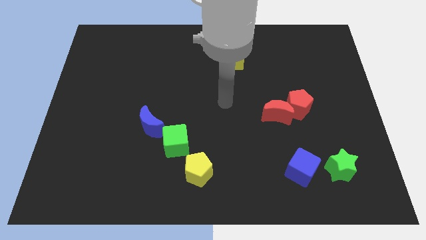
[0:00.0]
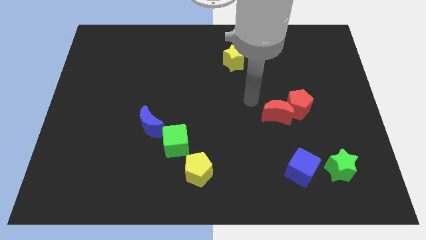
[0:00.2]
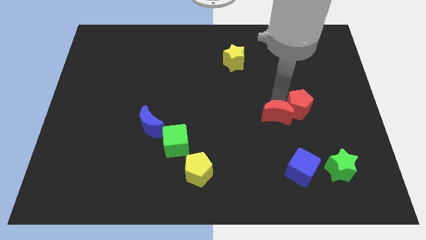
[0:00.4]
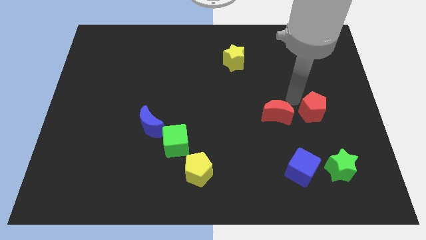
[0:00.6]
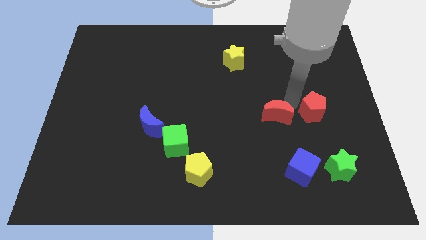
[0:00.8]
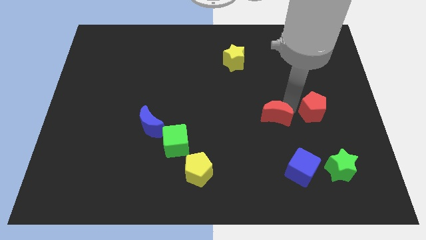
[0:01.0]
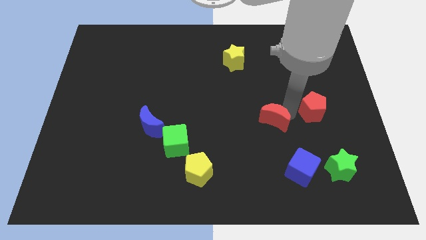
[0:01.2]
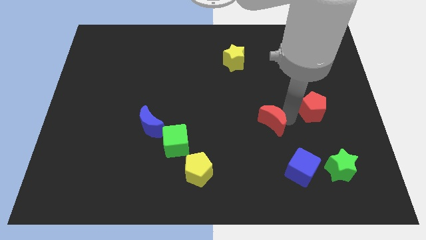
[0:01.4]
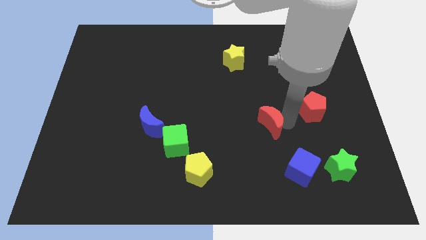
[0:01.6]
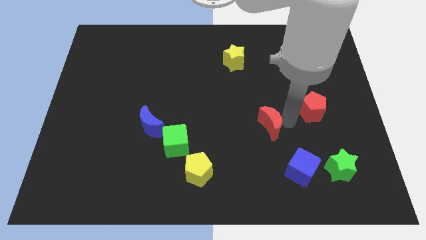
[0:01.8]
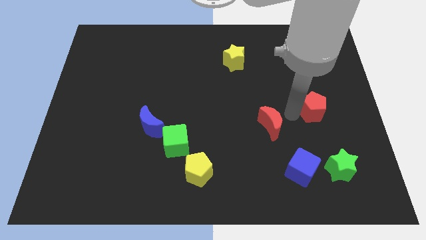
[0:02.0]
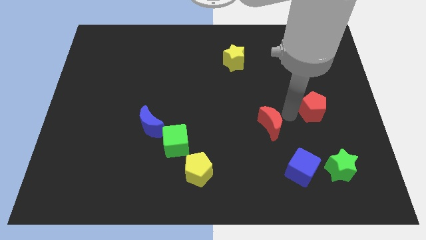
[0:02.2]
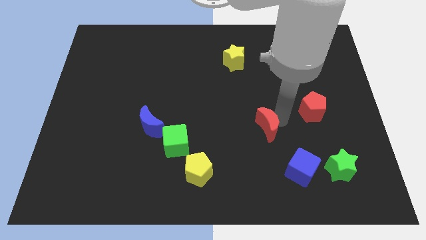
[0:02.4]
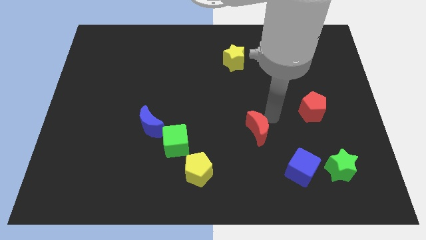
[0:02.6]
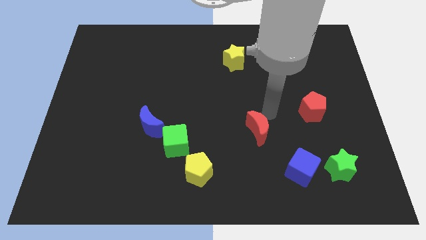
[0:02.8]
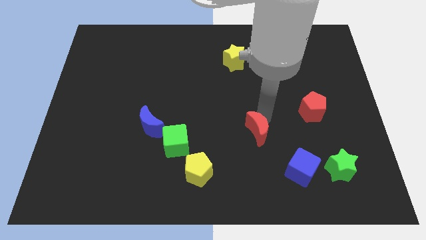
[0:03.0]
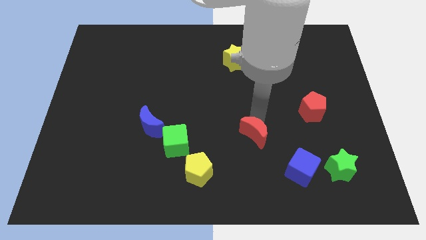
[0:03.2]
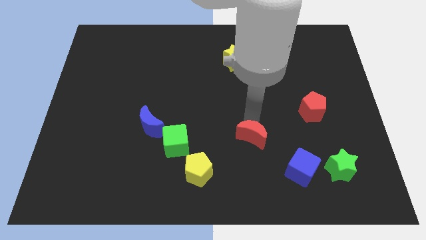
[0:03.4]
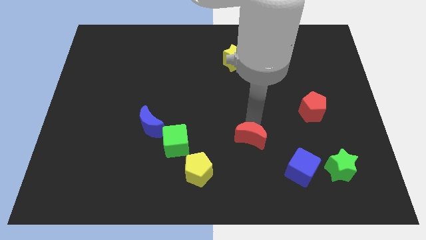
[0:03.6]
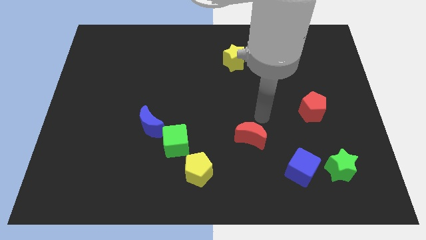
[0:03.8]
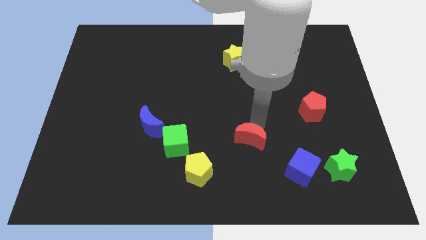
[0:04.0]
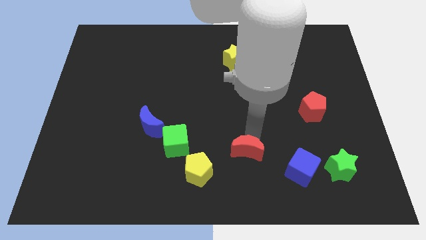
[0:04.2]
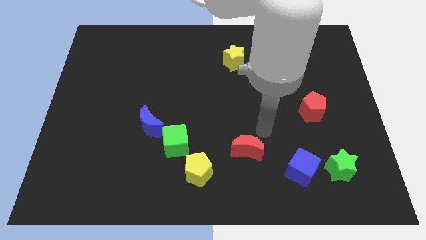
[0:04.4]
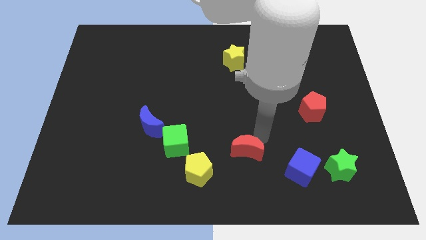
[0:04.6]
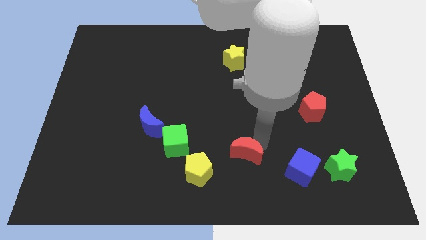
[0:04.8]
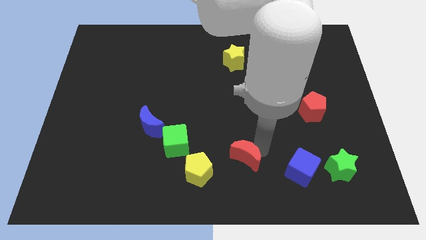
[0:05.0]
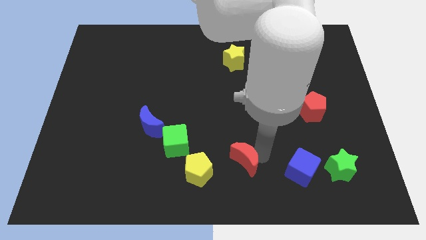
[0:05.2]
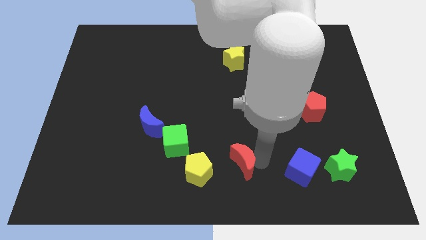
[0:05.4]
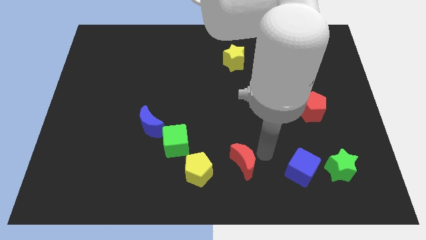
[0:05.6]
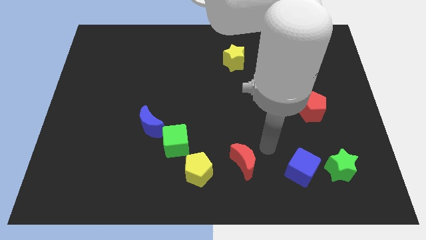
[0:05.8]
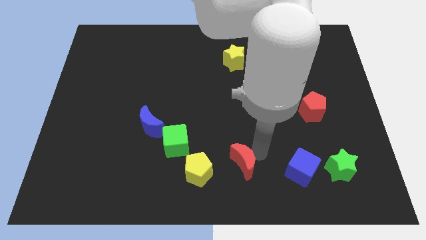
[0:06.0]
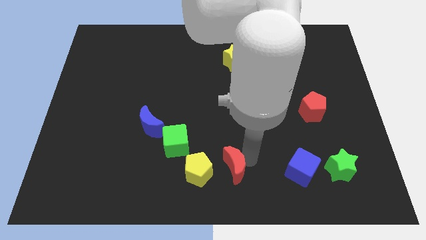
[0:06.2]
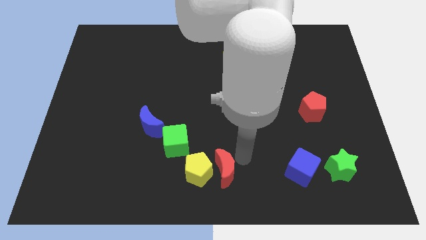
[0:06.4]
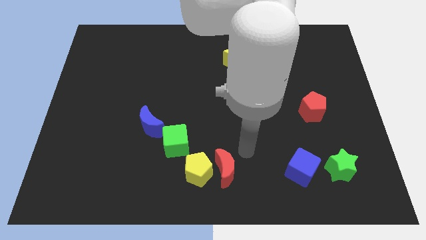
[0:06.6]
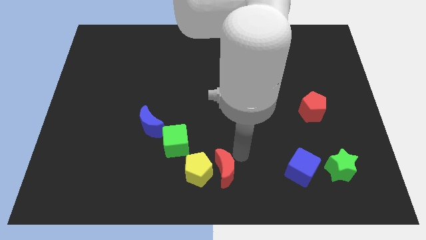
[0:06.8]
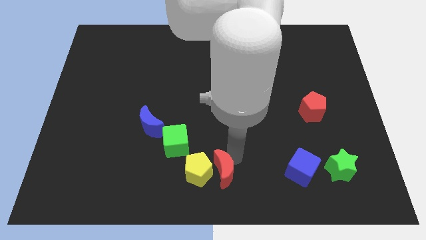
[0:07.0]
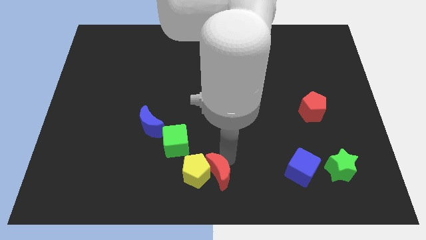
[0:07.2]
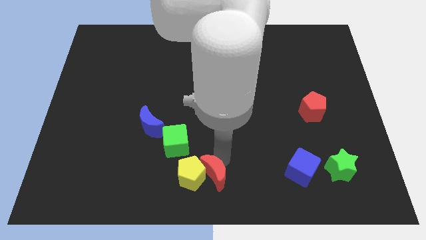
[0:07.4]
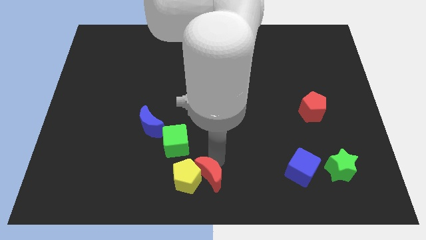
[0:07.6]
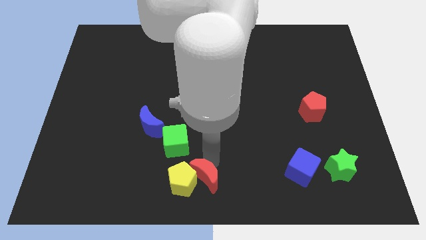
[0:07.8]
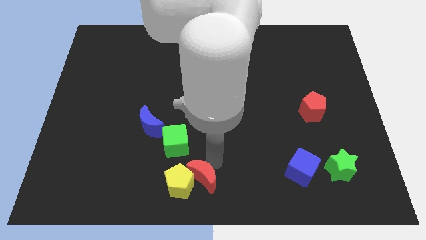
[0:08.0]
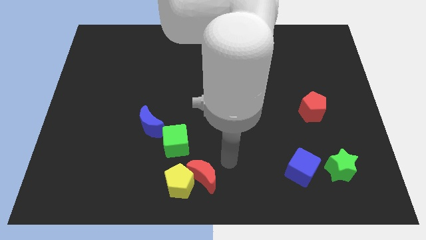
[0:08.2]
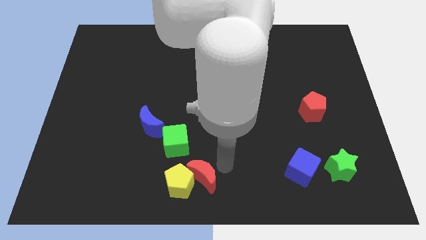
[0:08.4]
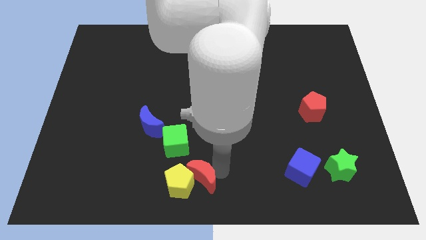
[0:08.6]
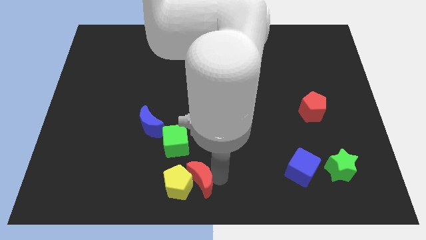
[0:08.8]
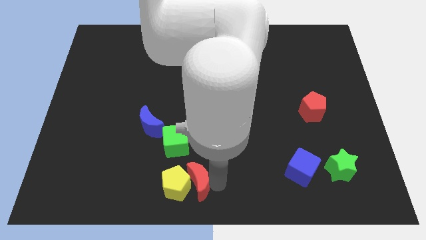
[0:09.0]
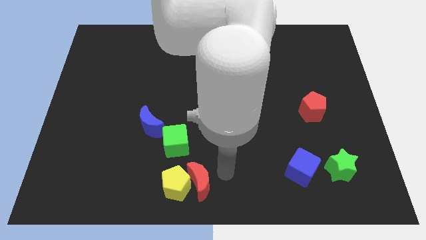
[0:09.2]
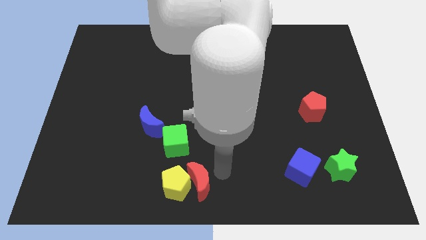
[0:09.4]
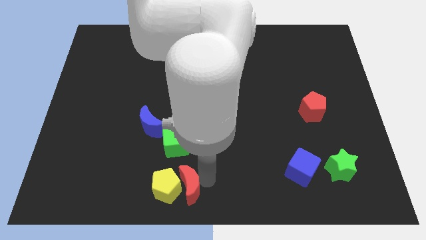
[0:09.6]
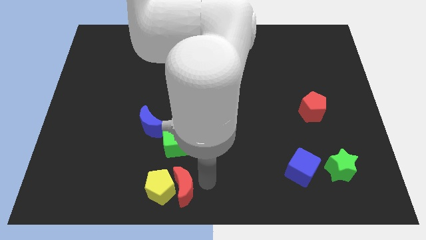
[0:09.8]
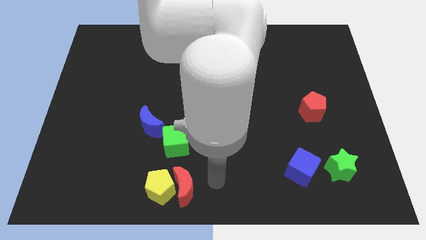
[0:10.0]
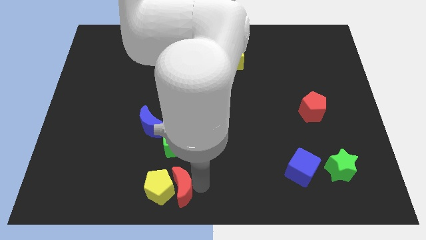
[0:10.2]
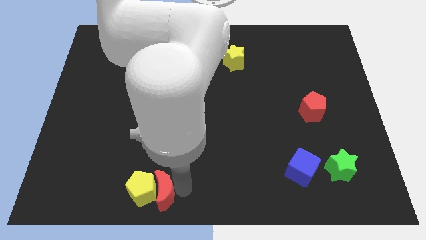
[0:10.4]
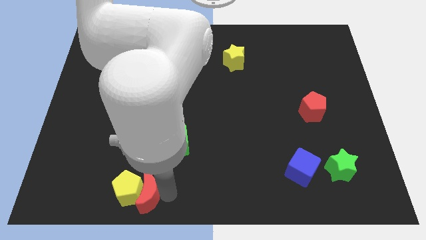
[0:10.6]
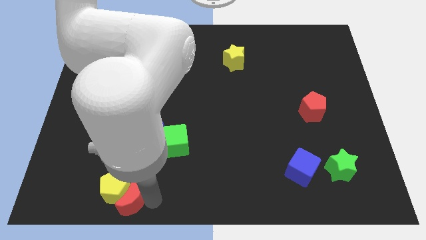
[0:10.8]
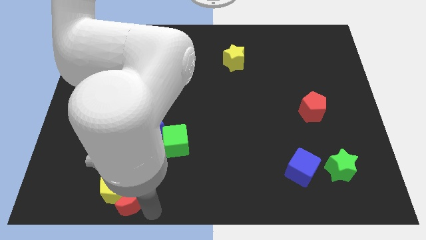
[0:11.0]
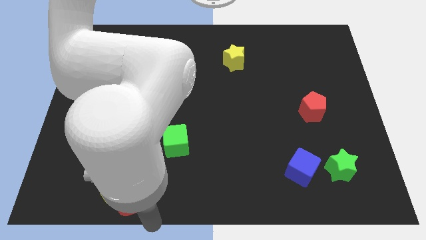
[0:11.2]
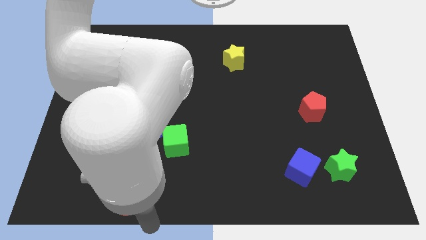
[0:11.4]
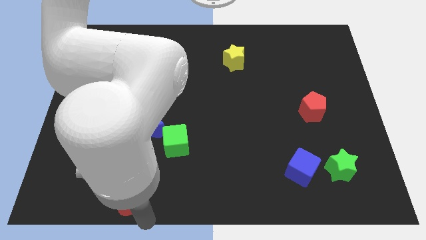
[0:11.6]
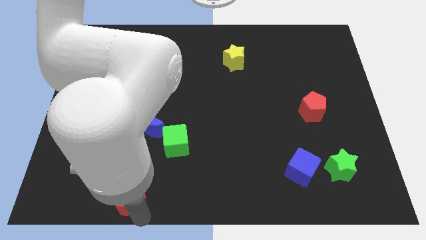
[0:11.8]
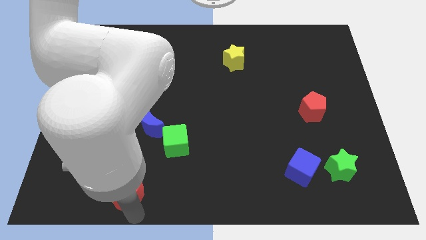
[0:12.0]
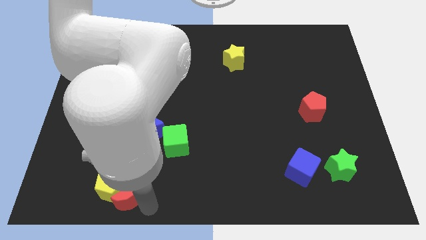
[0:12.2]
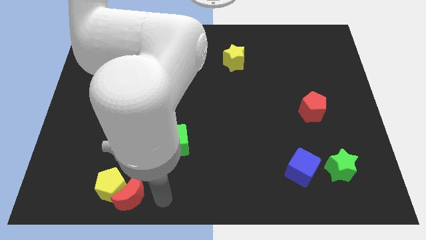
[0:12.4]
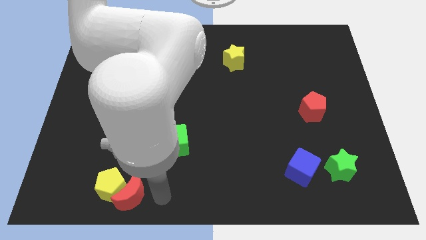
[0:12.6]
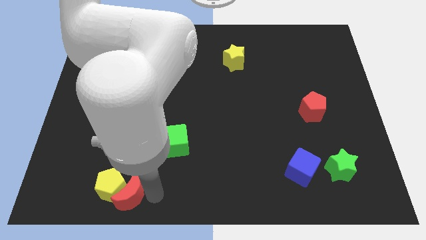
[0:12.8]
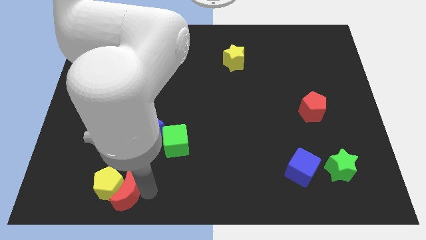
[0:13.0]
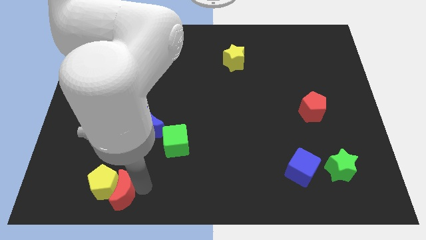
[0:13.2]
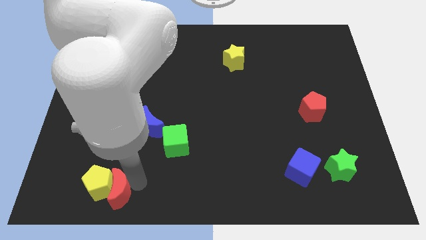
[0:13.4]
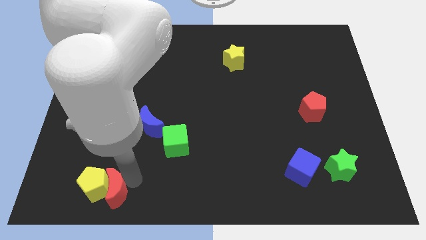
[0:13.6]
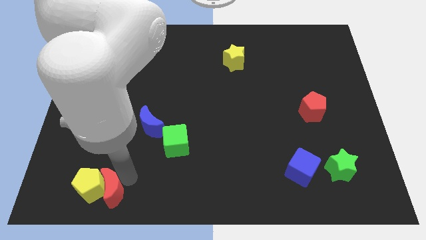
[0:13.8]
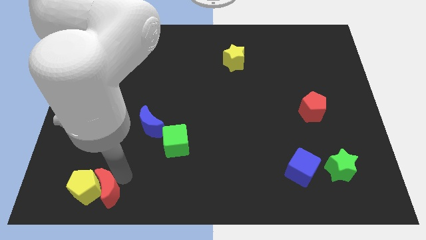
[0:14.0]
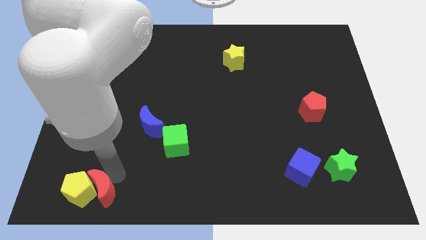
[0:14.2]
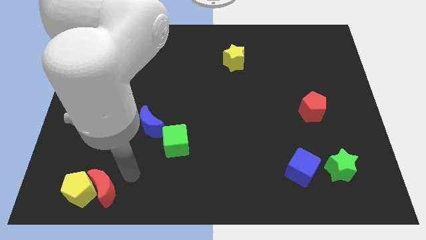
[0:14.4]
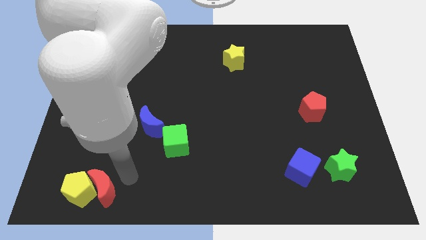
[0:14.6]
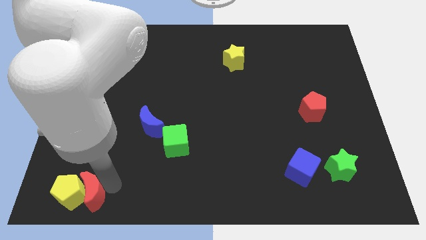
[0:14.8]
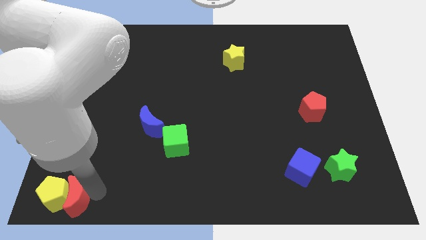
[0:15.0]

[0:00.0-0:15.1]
move the red moon to the bottom left corner
